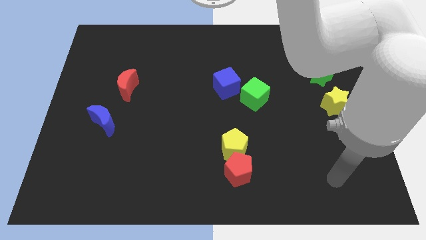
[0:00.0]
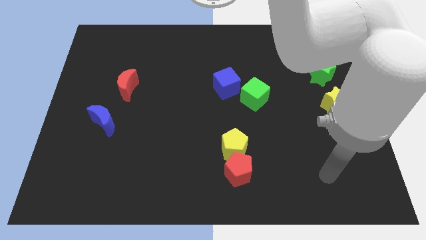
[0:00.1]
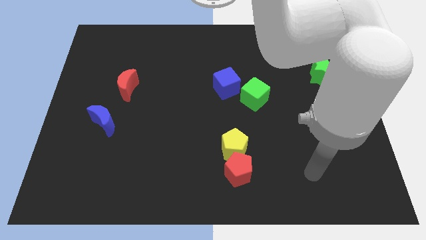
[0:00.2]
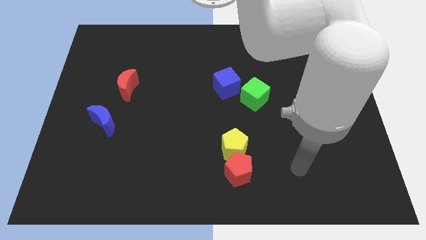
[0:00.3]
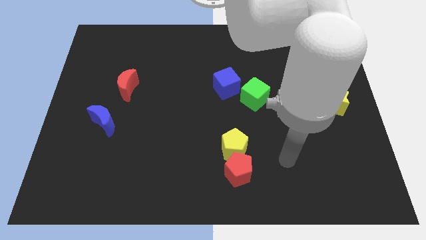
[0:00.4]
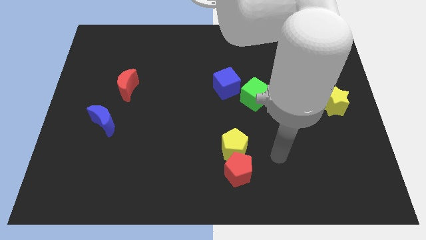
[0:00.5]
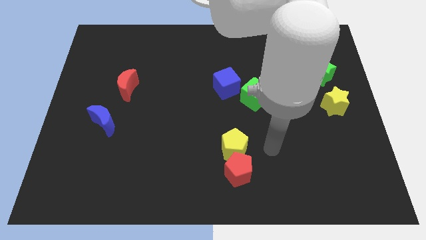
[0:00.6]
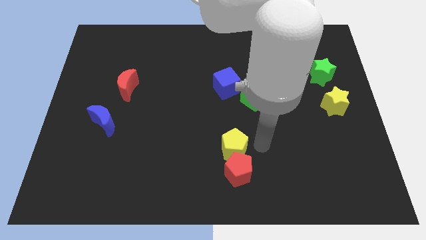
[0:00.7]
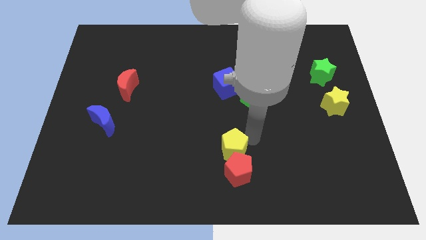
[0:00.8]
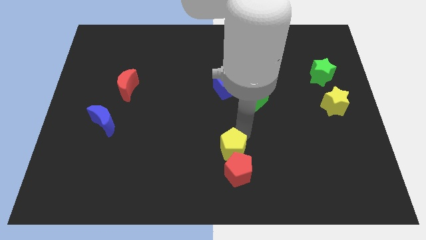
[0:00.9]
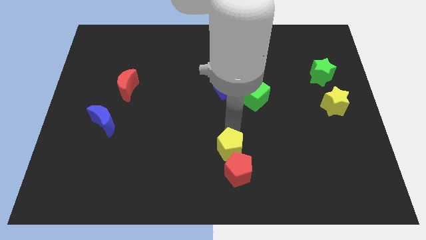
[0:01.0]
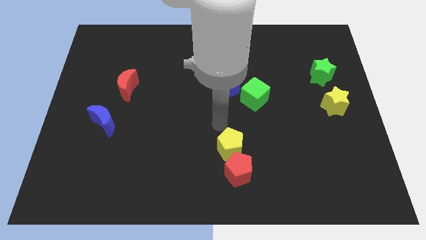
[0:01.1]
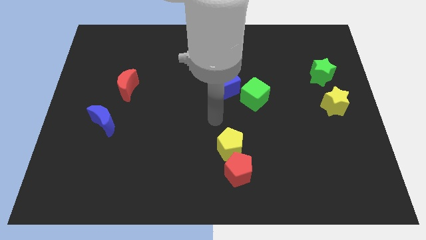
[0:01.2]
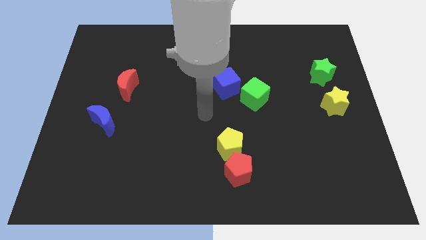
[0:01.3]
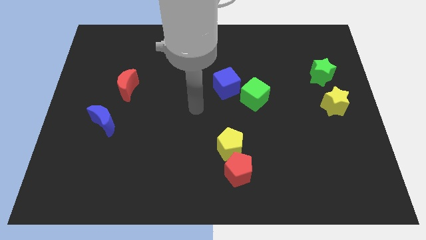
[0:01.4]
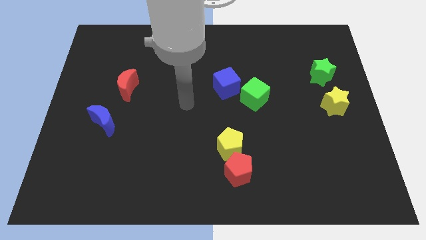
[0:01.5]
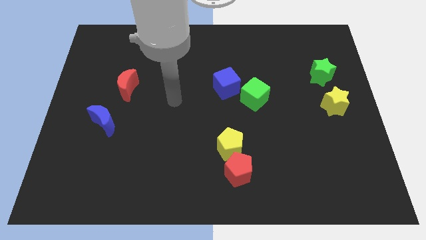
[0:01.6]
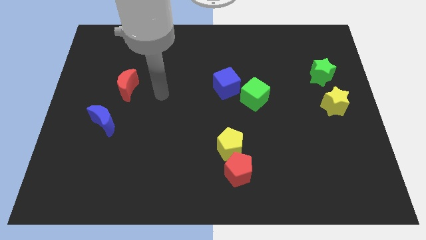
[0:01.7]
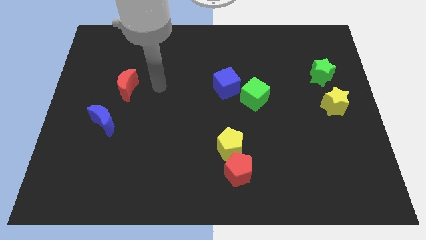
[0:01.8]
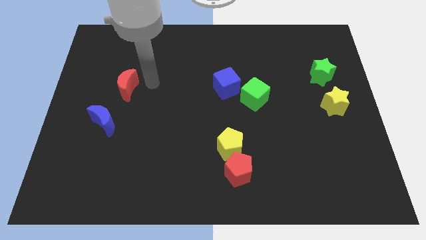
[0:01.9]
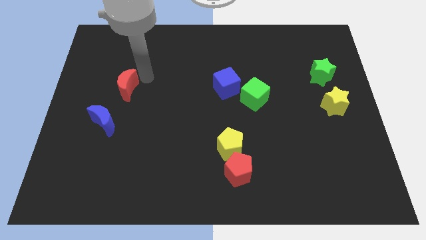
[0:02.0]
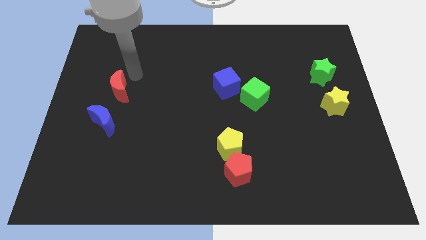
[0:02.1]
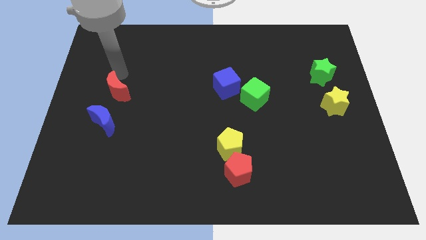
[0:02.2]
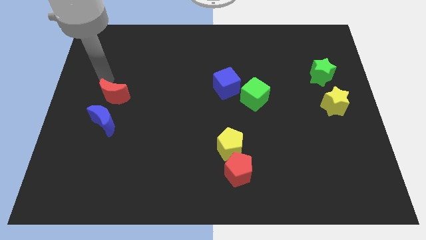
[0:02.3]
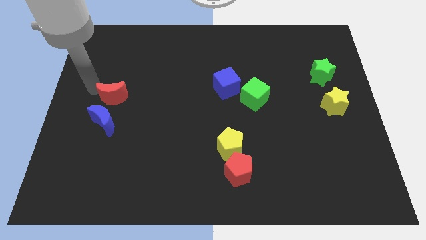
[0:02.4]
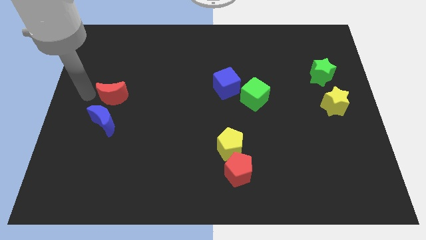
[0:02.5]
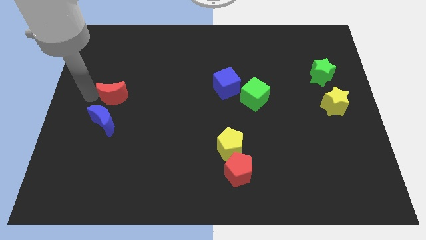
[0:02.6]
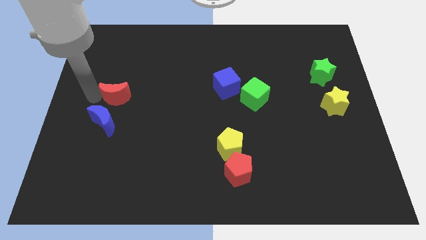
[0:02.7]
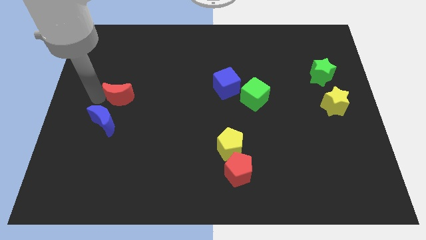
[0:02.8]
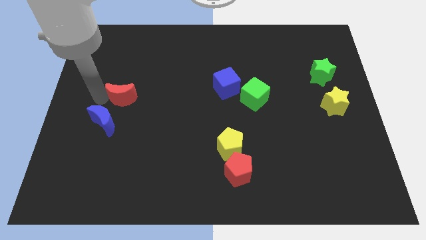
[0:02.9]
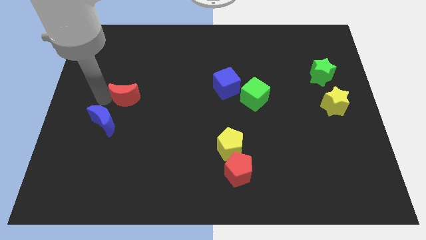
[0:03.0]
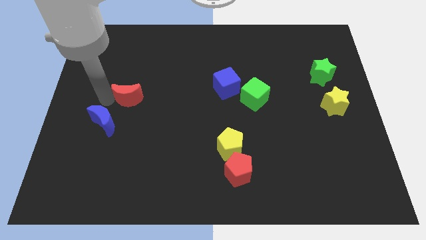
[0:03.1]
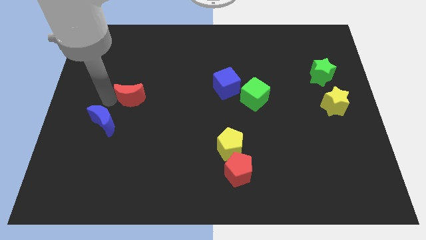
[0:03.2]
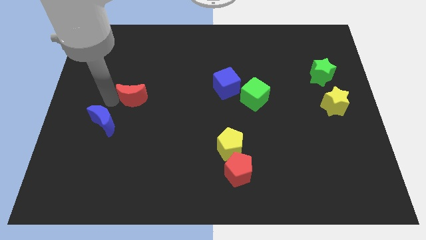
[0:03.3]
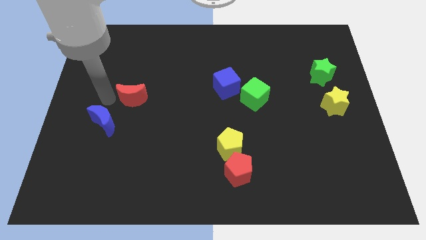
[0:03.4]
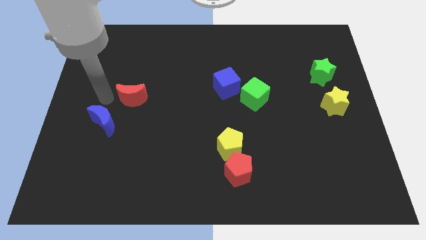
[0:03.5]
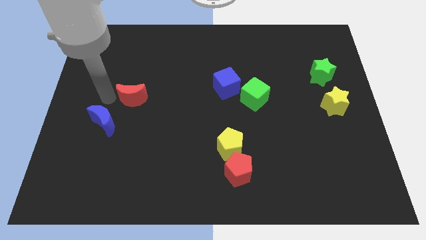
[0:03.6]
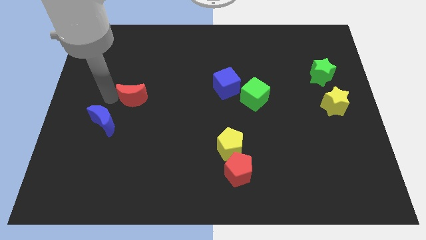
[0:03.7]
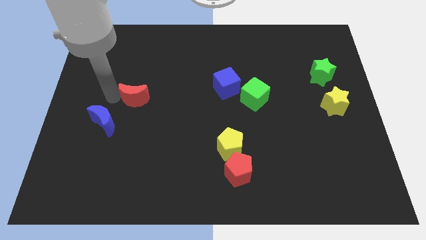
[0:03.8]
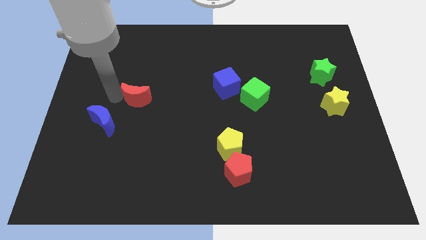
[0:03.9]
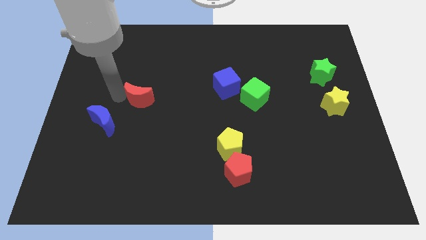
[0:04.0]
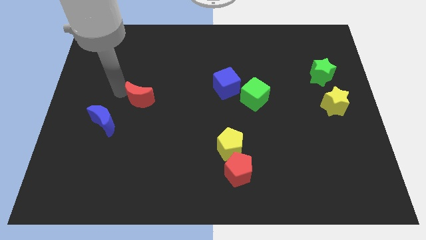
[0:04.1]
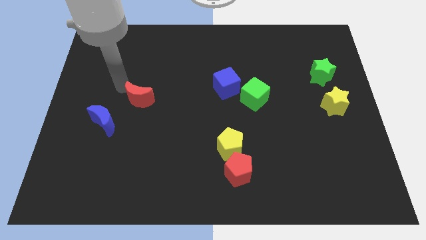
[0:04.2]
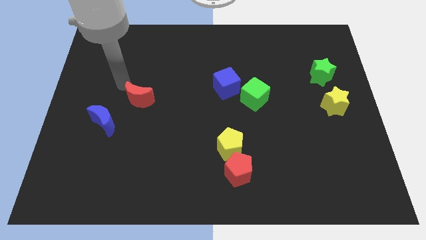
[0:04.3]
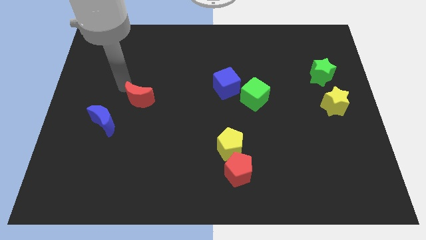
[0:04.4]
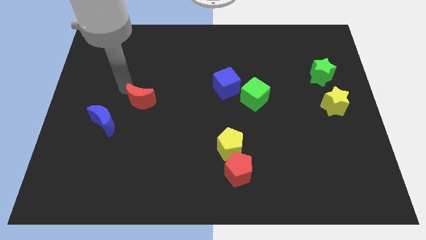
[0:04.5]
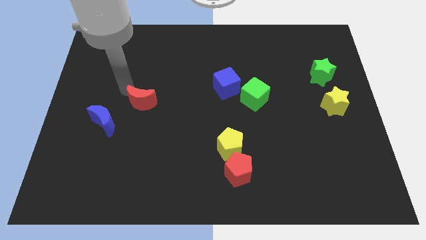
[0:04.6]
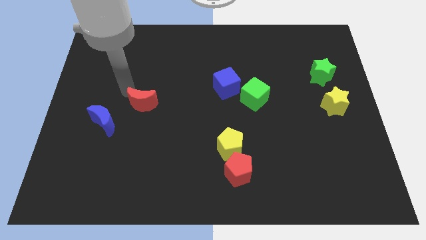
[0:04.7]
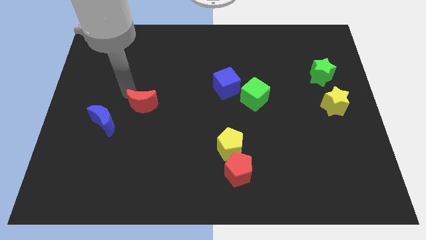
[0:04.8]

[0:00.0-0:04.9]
slide the red moon down and then right slightly

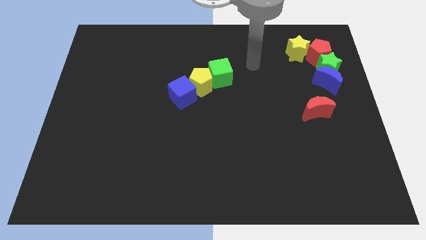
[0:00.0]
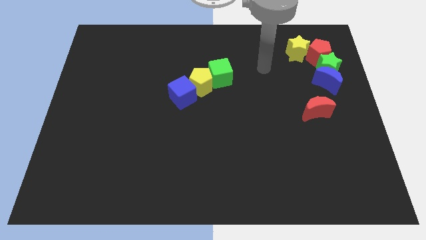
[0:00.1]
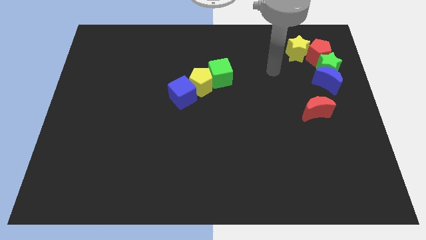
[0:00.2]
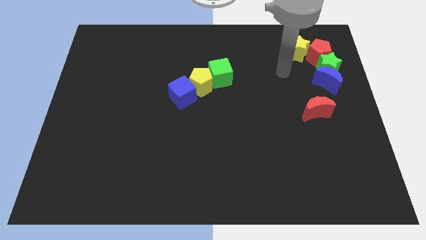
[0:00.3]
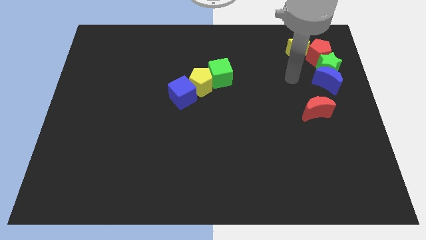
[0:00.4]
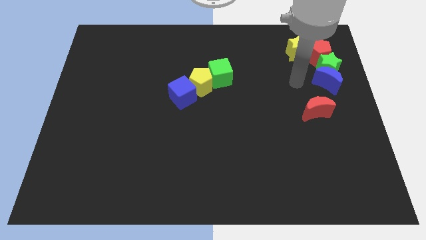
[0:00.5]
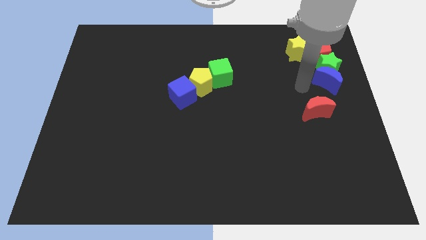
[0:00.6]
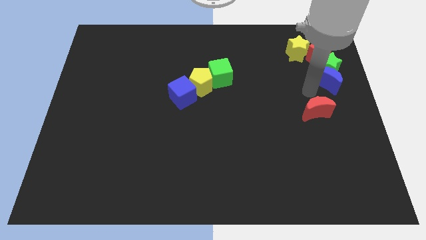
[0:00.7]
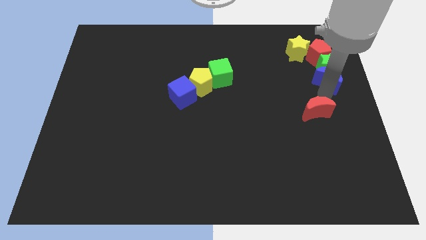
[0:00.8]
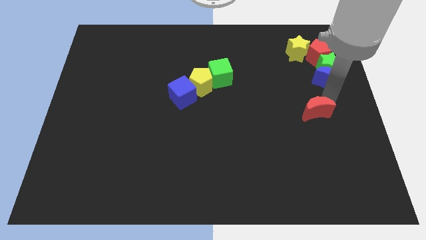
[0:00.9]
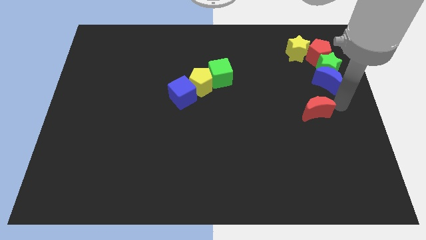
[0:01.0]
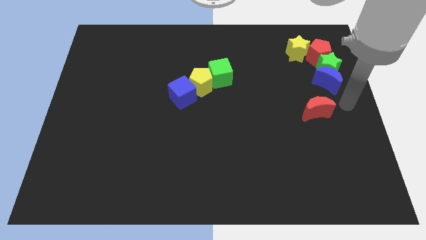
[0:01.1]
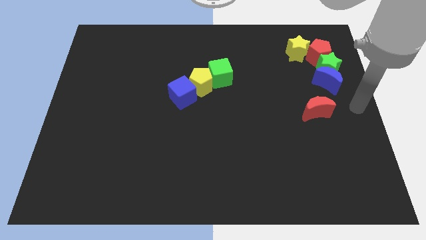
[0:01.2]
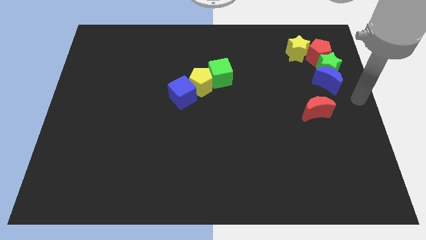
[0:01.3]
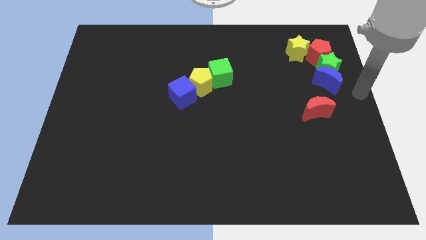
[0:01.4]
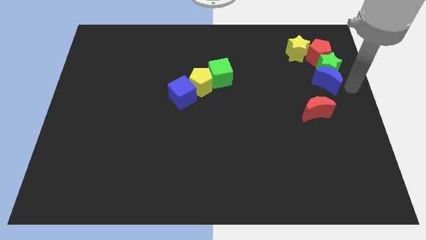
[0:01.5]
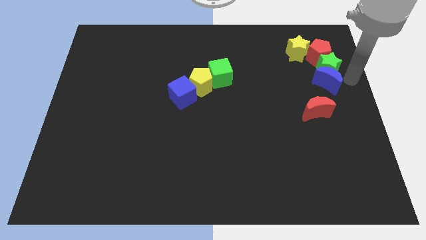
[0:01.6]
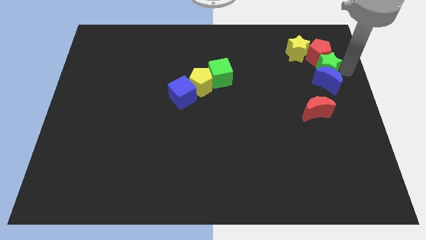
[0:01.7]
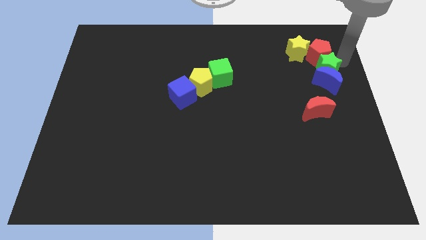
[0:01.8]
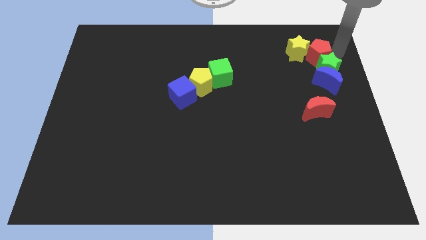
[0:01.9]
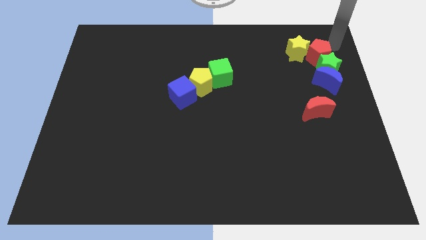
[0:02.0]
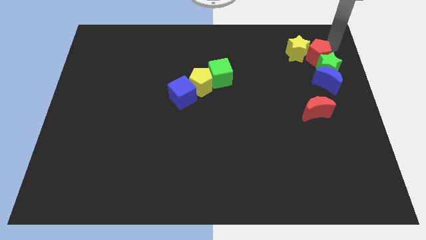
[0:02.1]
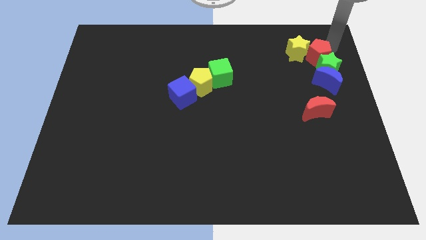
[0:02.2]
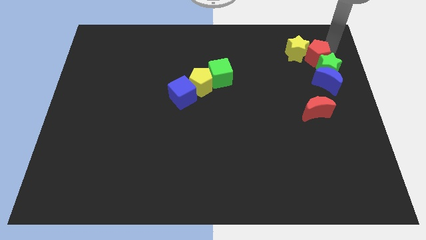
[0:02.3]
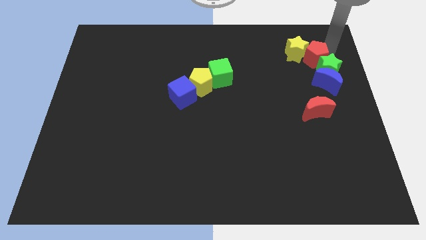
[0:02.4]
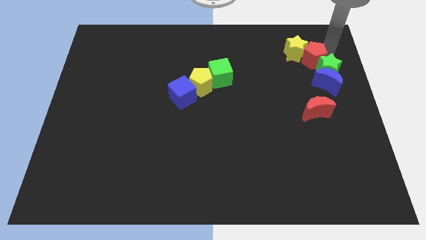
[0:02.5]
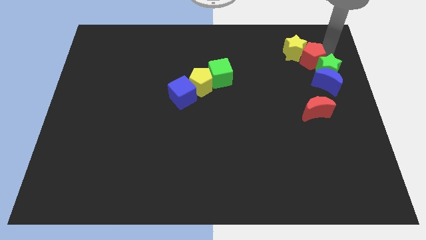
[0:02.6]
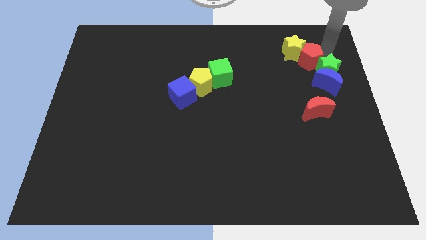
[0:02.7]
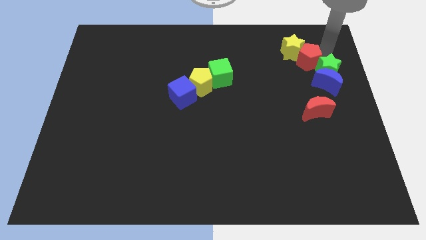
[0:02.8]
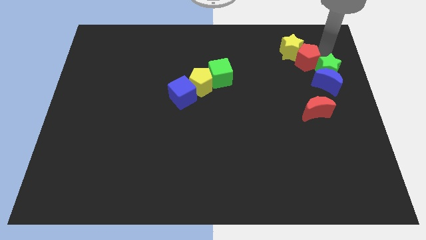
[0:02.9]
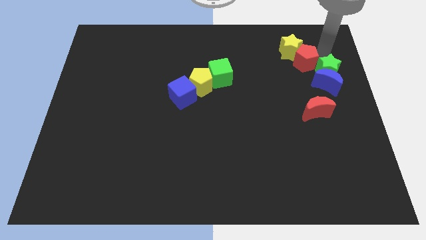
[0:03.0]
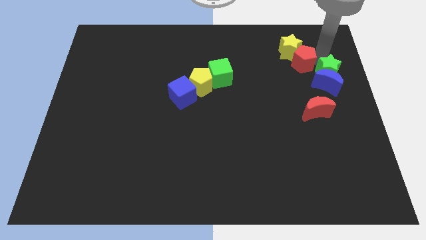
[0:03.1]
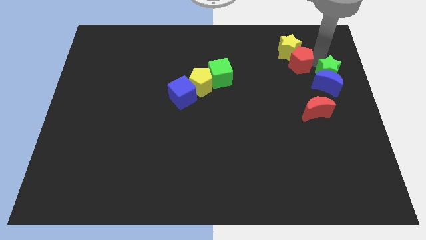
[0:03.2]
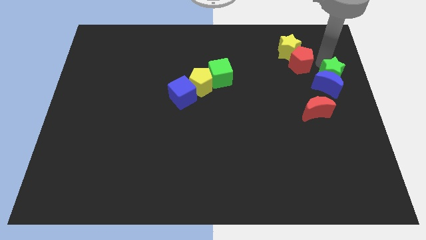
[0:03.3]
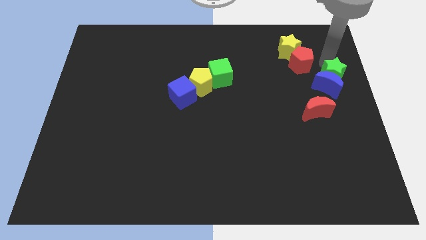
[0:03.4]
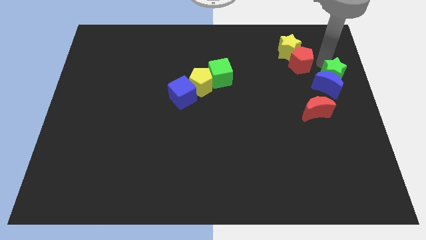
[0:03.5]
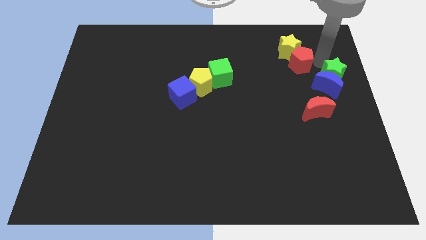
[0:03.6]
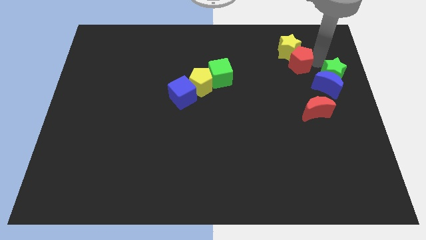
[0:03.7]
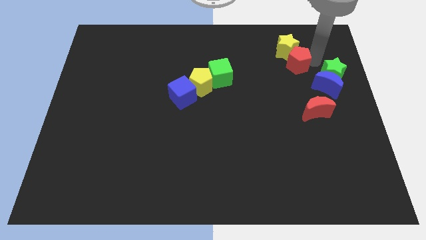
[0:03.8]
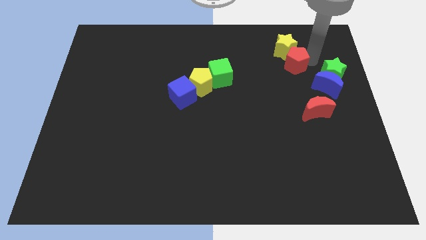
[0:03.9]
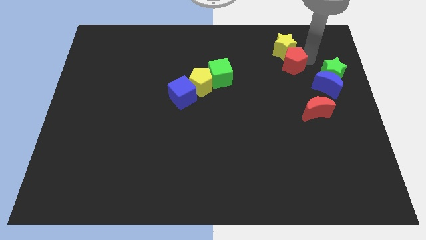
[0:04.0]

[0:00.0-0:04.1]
slightly move the red pentagon left
